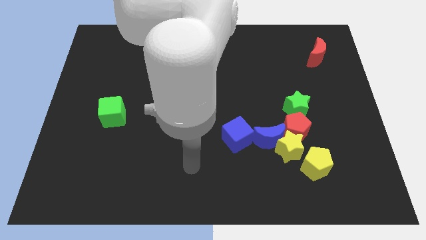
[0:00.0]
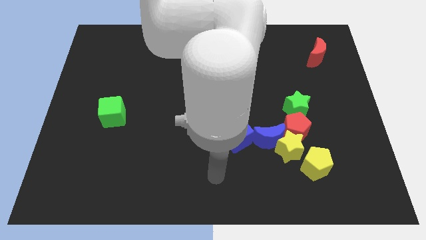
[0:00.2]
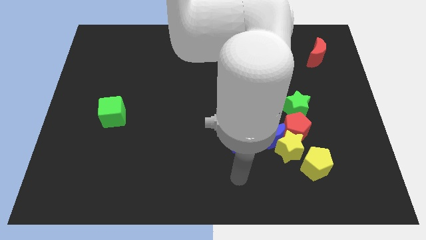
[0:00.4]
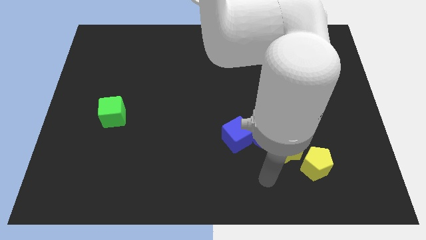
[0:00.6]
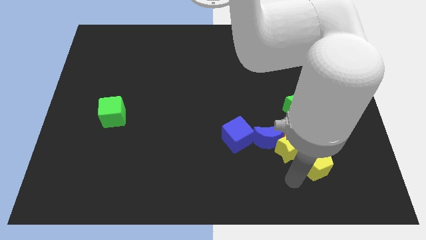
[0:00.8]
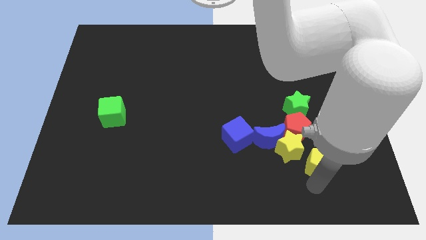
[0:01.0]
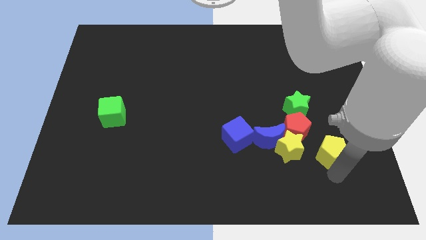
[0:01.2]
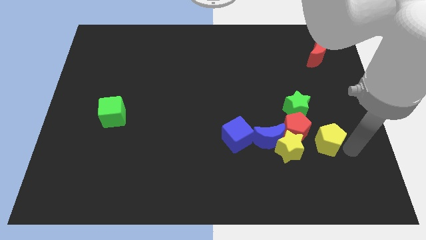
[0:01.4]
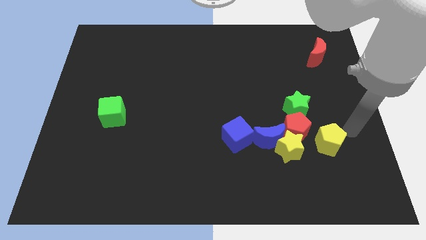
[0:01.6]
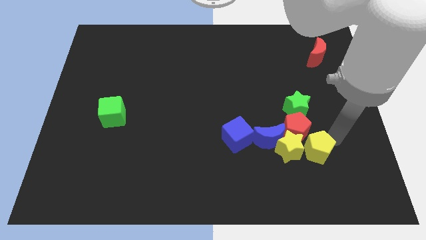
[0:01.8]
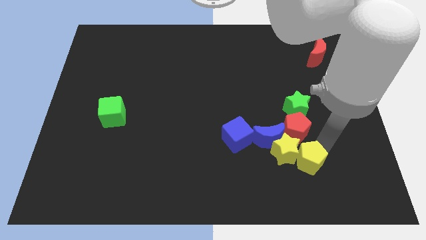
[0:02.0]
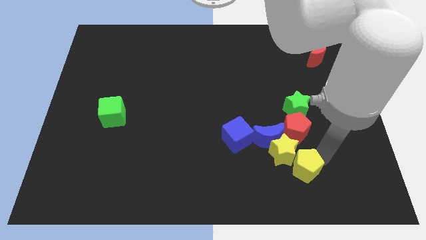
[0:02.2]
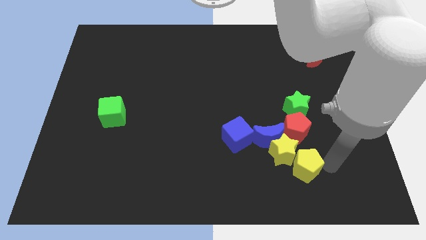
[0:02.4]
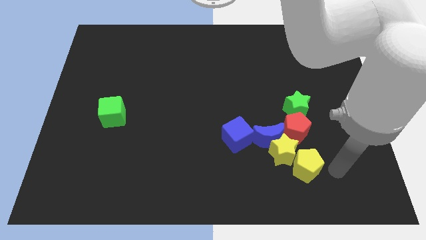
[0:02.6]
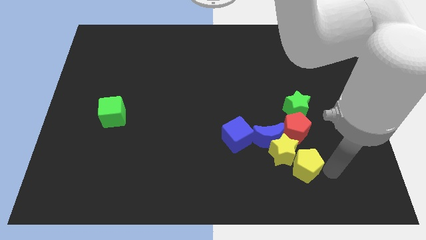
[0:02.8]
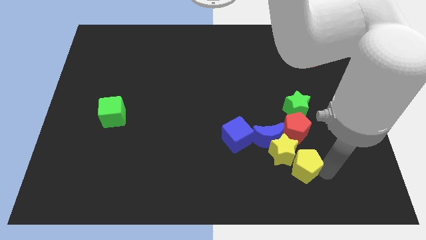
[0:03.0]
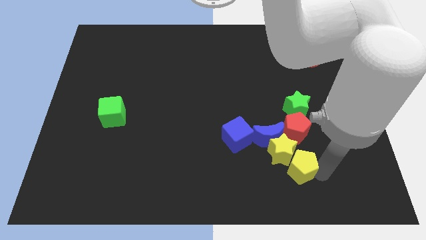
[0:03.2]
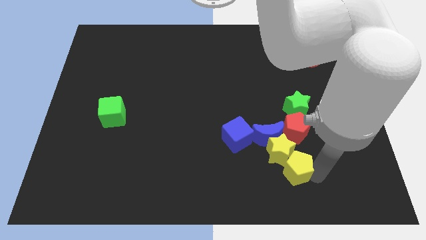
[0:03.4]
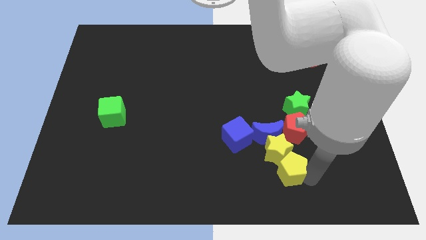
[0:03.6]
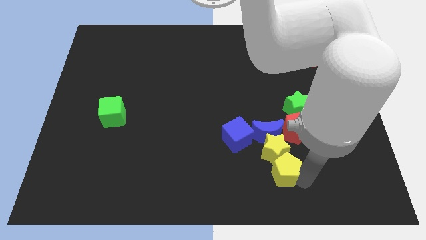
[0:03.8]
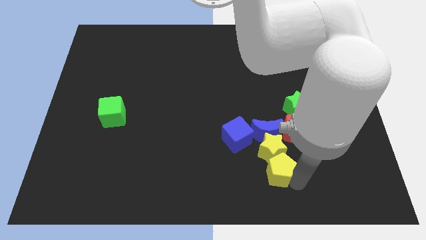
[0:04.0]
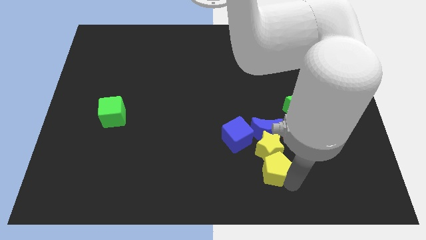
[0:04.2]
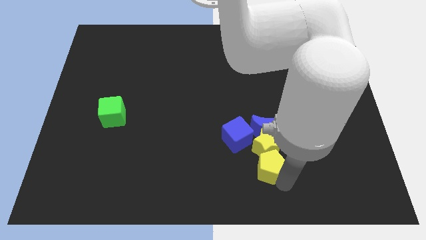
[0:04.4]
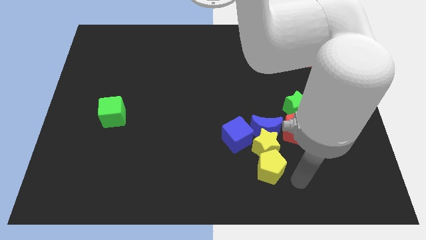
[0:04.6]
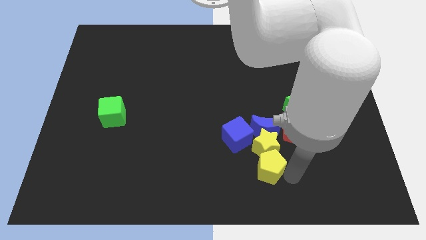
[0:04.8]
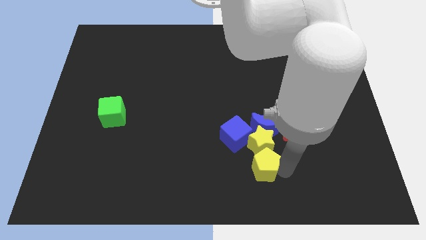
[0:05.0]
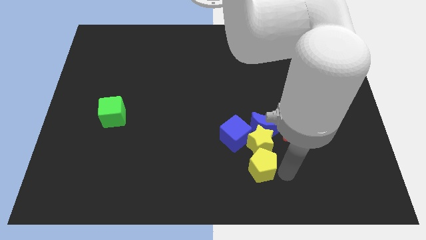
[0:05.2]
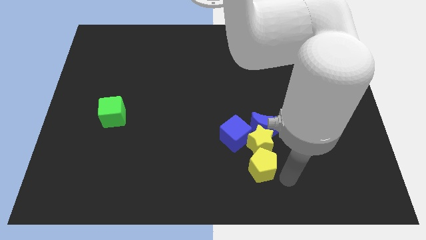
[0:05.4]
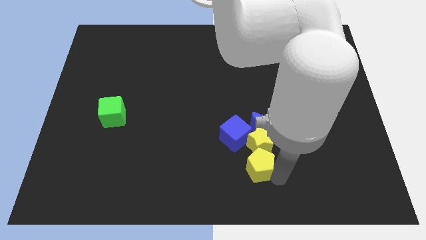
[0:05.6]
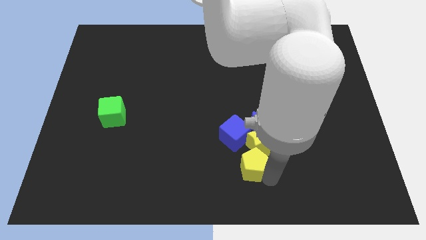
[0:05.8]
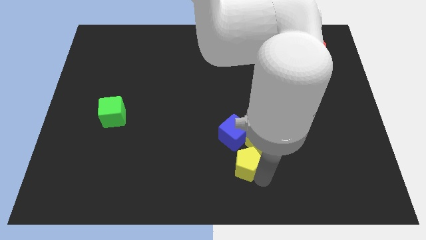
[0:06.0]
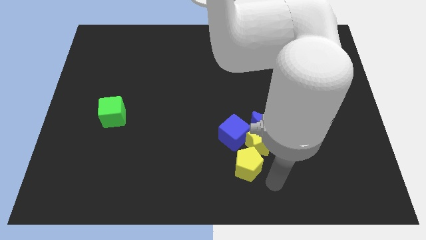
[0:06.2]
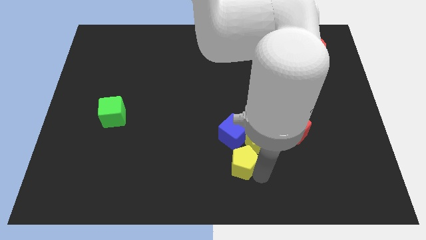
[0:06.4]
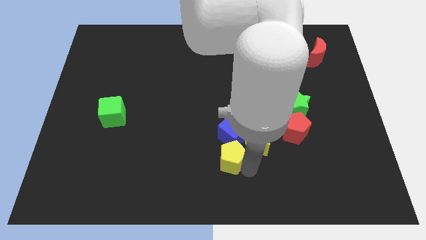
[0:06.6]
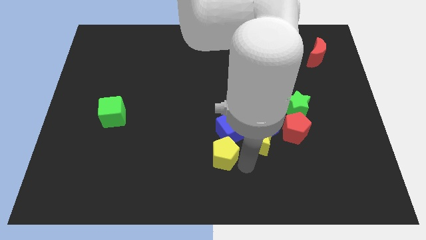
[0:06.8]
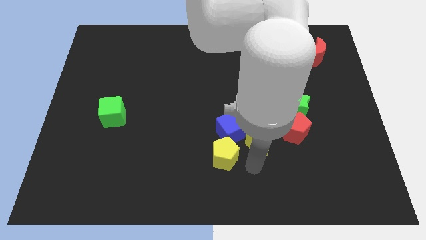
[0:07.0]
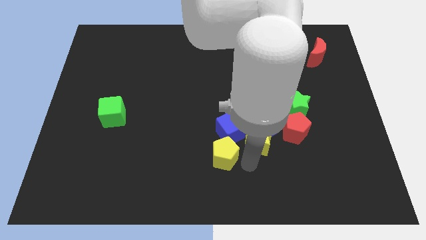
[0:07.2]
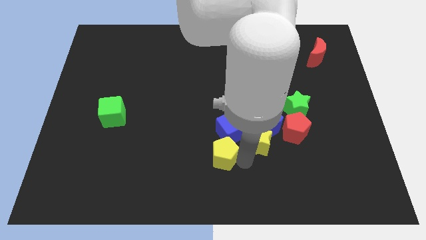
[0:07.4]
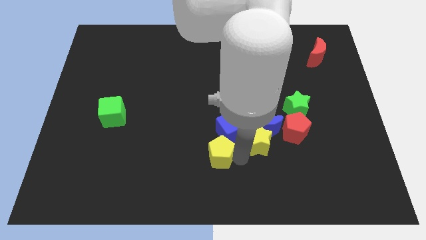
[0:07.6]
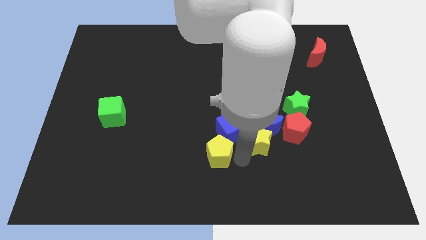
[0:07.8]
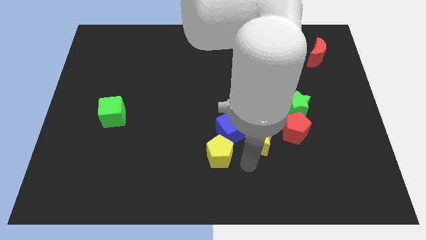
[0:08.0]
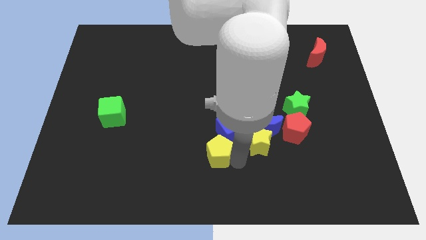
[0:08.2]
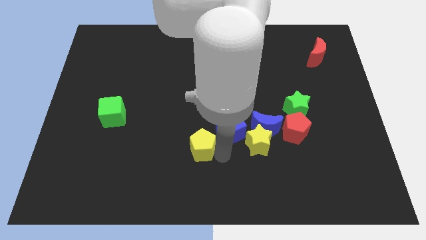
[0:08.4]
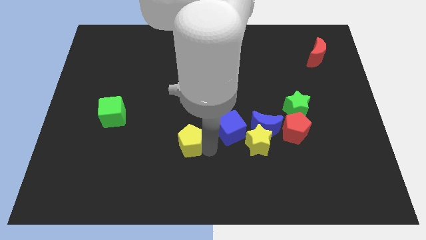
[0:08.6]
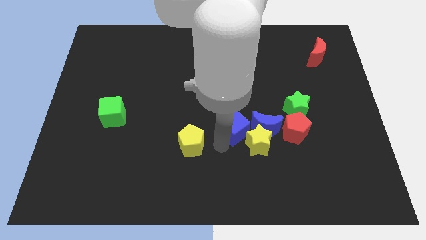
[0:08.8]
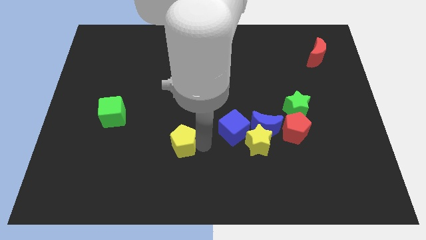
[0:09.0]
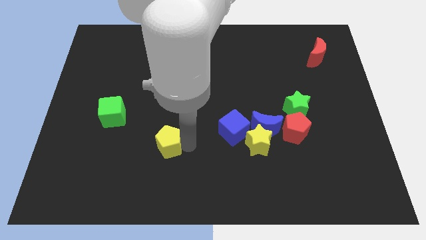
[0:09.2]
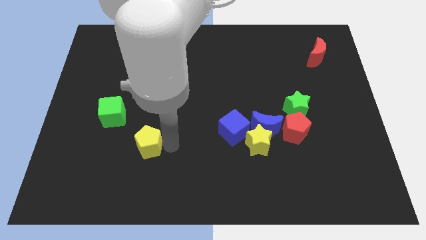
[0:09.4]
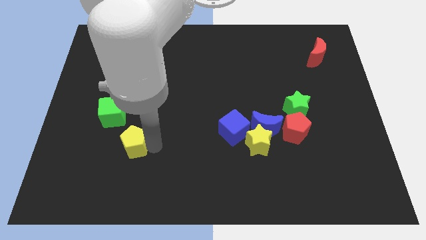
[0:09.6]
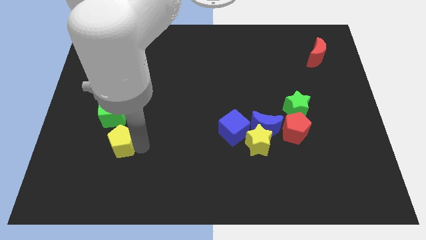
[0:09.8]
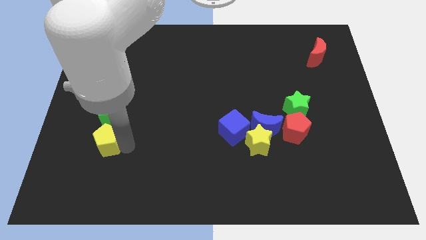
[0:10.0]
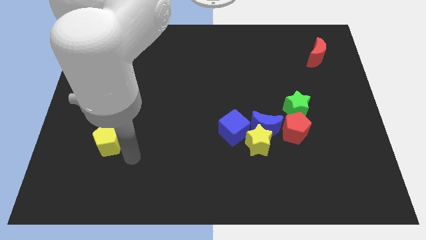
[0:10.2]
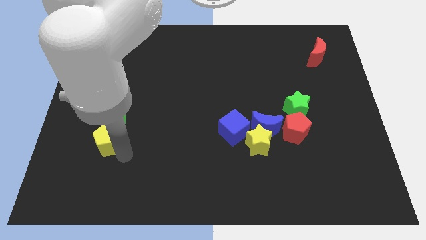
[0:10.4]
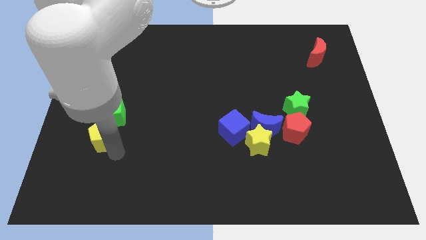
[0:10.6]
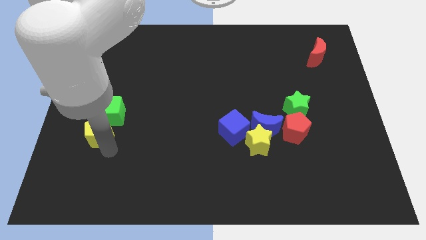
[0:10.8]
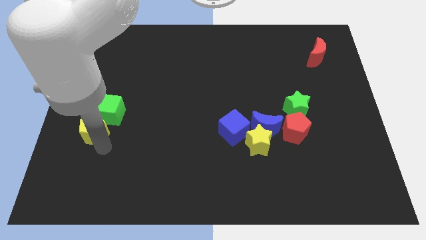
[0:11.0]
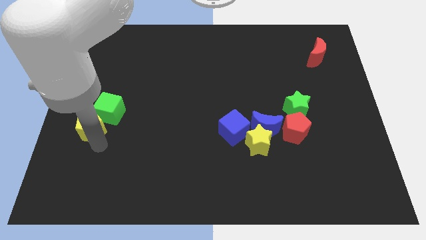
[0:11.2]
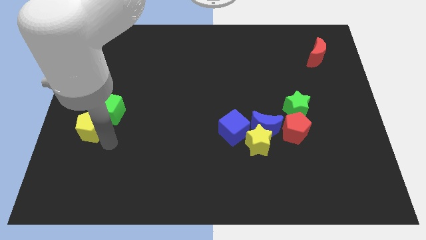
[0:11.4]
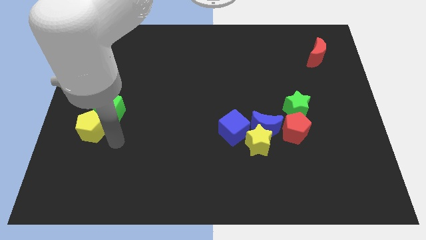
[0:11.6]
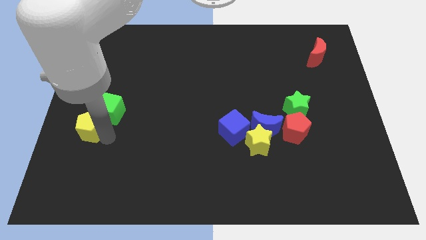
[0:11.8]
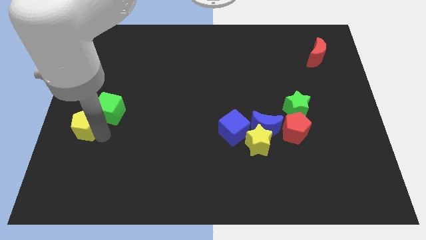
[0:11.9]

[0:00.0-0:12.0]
put the yellow pentagon to the center left
